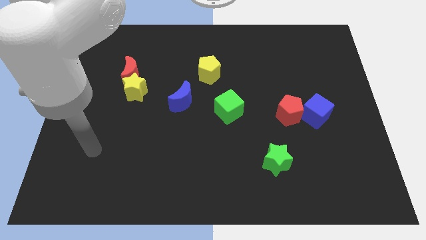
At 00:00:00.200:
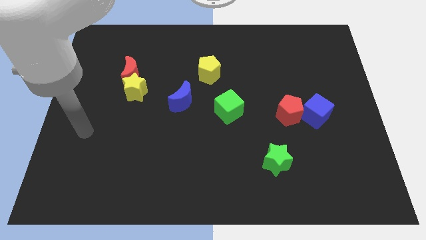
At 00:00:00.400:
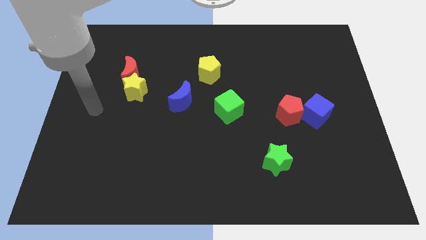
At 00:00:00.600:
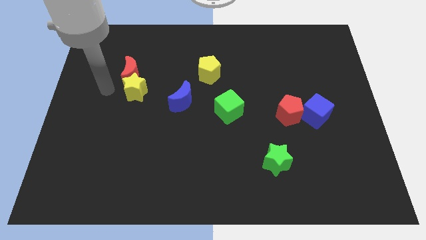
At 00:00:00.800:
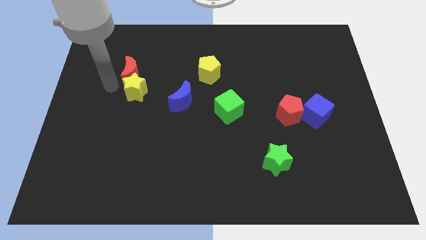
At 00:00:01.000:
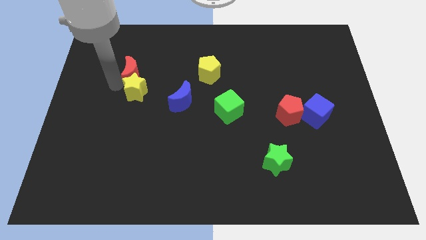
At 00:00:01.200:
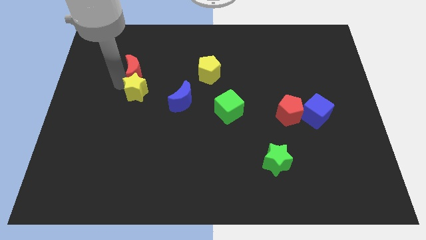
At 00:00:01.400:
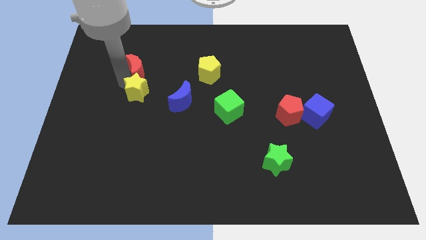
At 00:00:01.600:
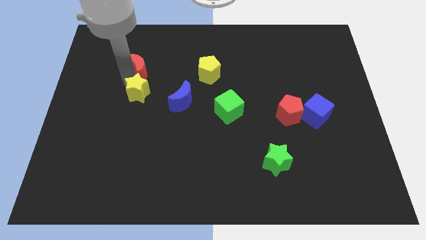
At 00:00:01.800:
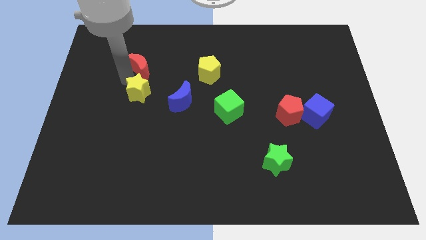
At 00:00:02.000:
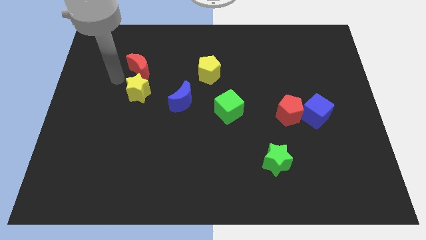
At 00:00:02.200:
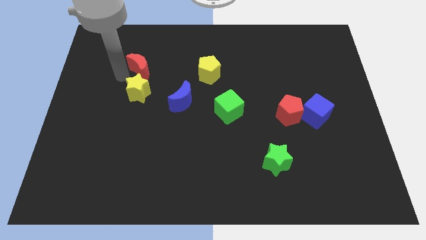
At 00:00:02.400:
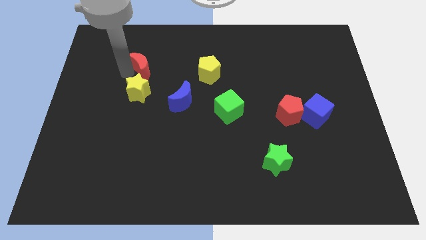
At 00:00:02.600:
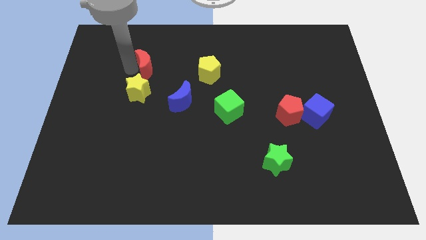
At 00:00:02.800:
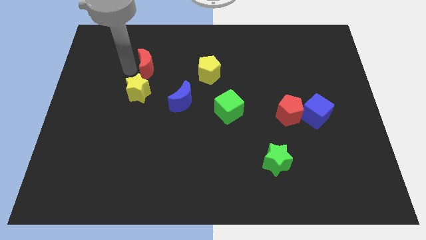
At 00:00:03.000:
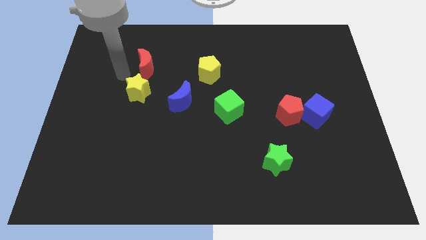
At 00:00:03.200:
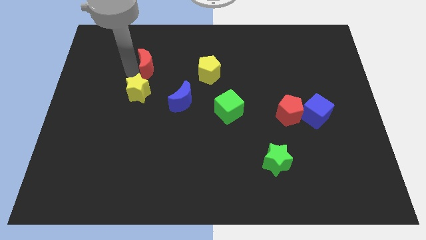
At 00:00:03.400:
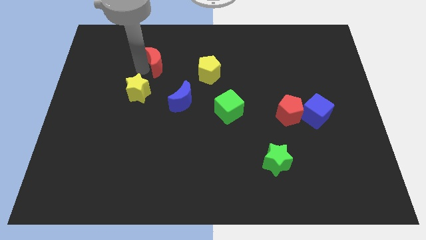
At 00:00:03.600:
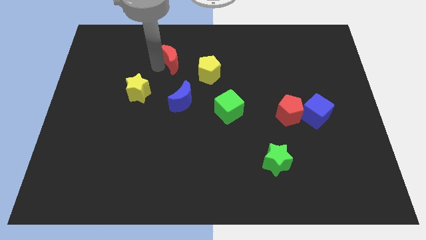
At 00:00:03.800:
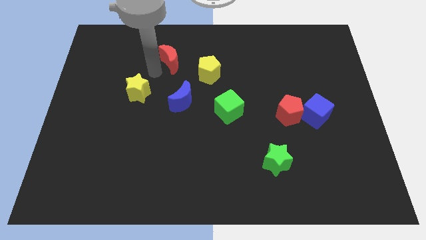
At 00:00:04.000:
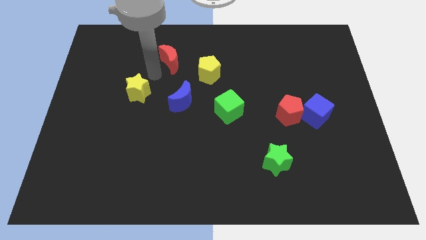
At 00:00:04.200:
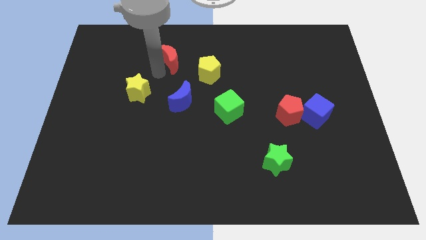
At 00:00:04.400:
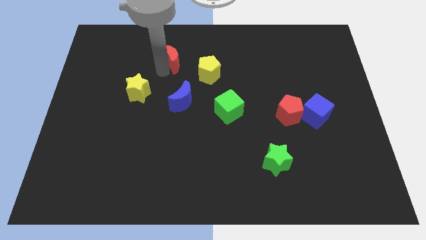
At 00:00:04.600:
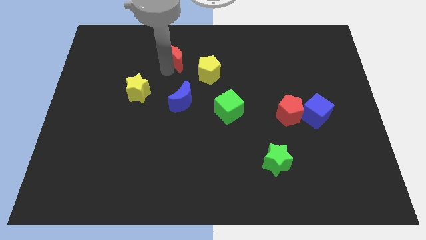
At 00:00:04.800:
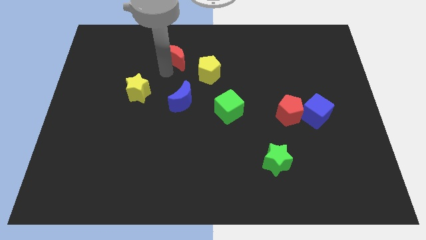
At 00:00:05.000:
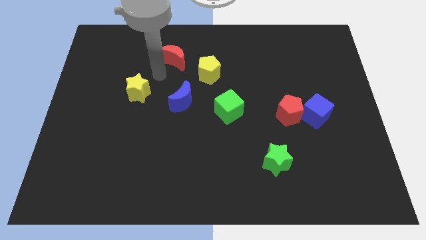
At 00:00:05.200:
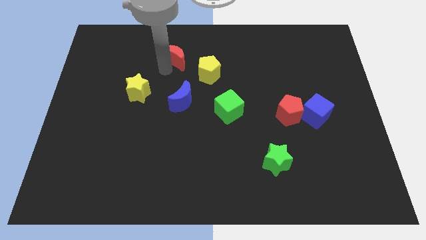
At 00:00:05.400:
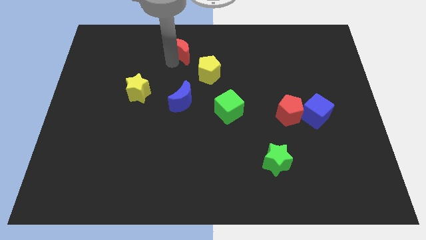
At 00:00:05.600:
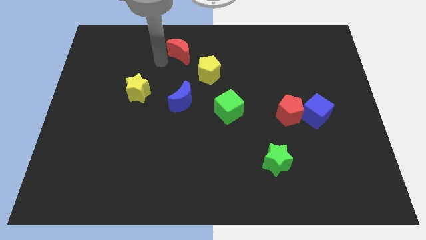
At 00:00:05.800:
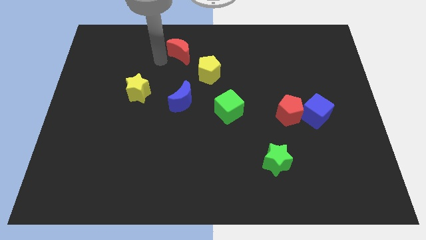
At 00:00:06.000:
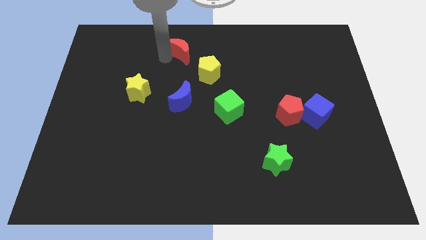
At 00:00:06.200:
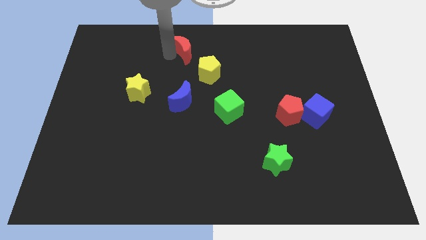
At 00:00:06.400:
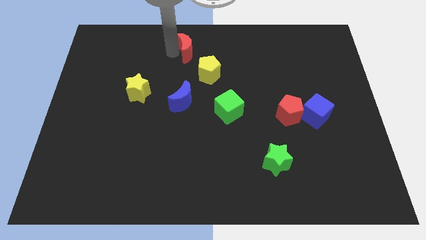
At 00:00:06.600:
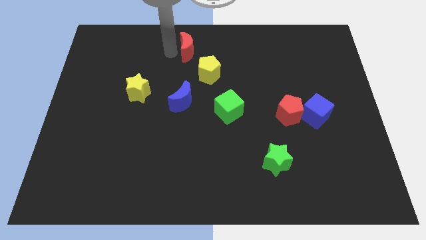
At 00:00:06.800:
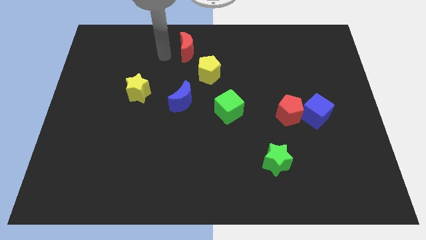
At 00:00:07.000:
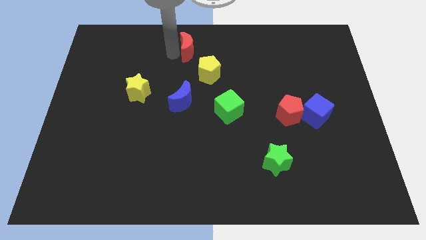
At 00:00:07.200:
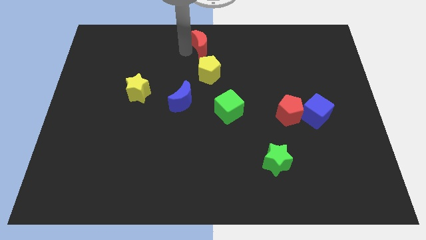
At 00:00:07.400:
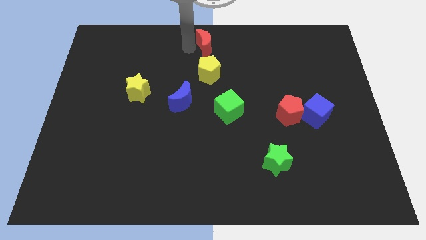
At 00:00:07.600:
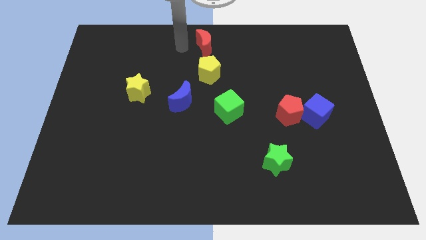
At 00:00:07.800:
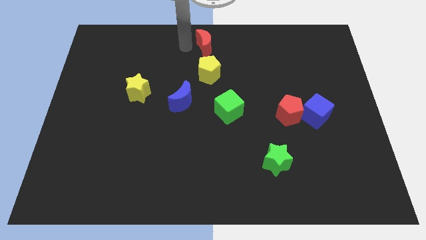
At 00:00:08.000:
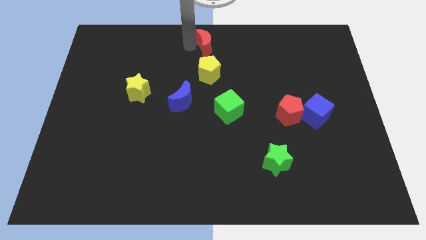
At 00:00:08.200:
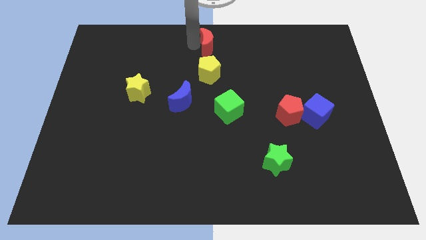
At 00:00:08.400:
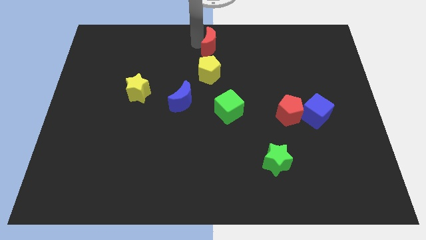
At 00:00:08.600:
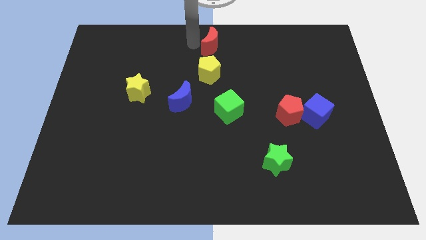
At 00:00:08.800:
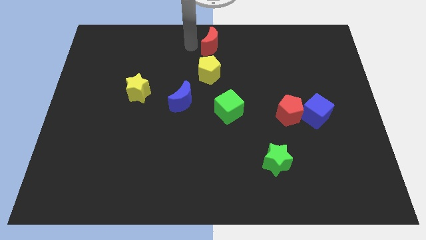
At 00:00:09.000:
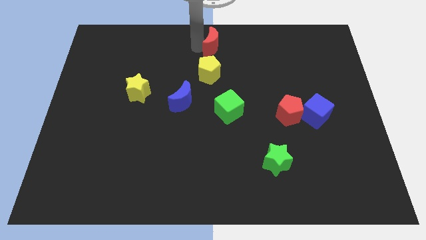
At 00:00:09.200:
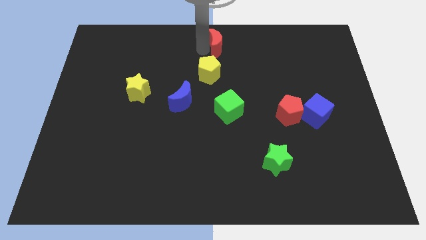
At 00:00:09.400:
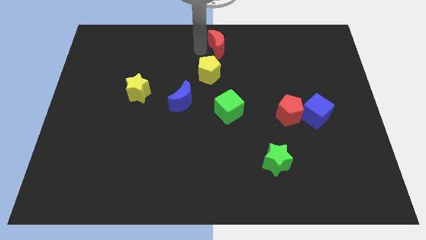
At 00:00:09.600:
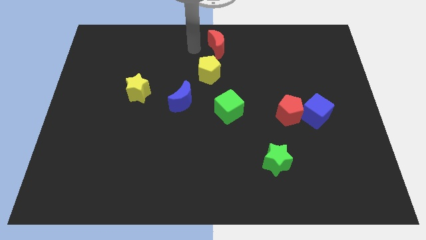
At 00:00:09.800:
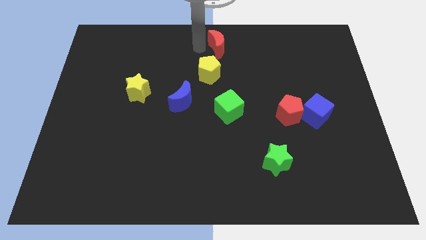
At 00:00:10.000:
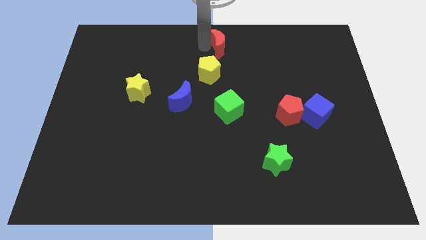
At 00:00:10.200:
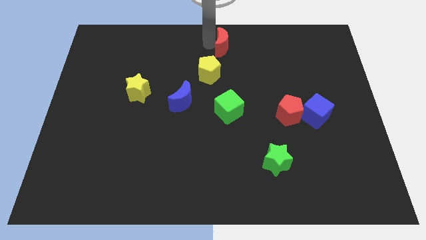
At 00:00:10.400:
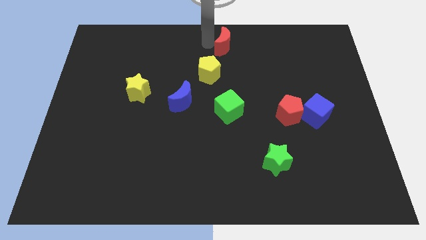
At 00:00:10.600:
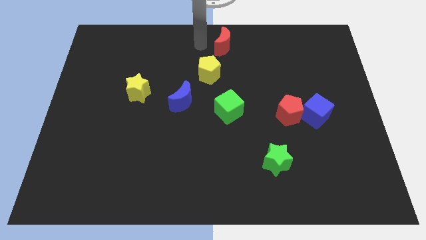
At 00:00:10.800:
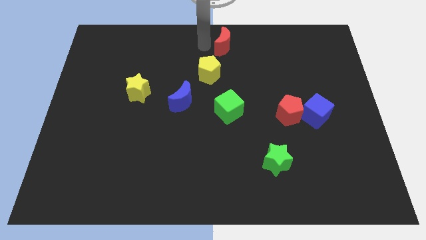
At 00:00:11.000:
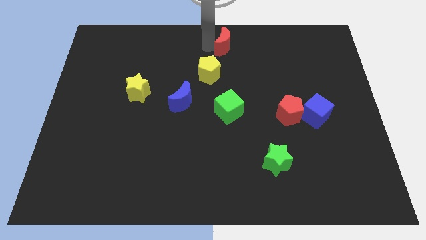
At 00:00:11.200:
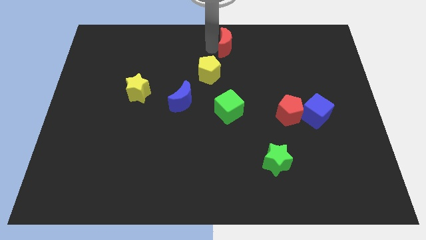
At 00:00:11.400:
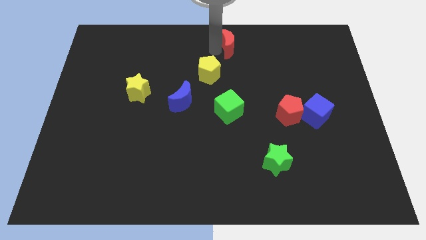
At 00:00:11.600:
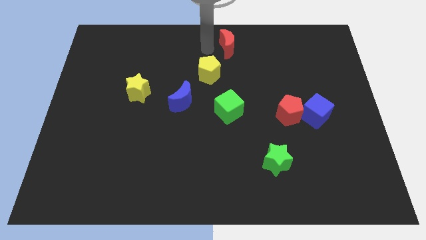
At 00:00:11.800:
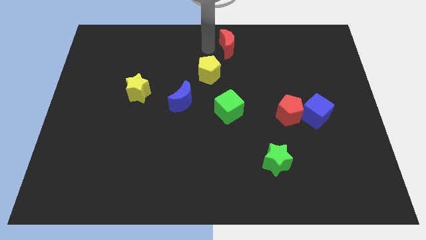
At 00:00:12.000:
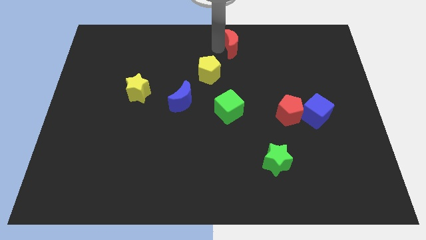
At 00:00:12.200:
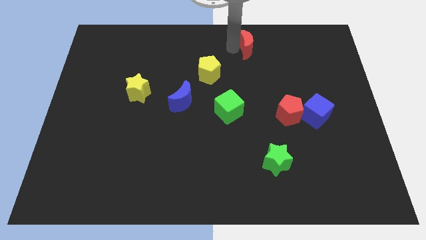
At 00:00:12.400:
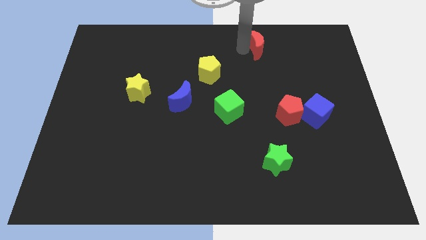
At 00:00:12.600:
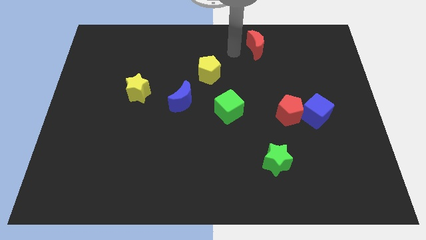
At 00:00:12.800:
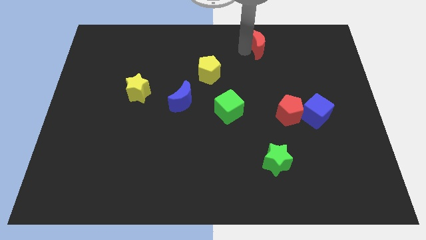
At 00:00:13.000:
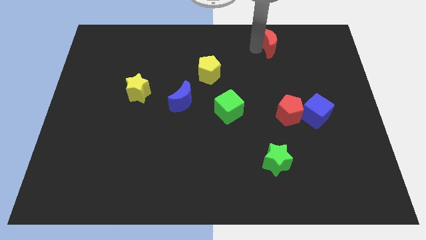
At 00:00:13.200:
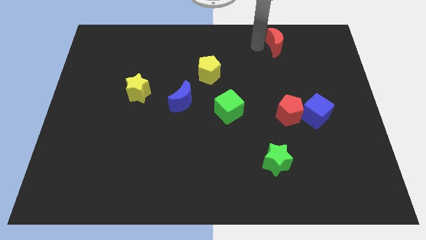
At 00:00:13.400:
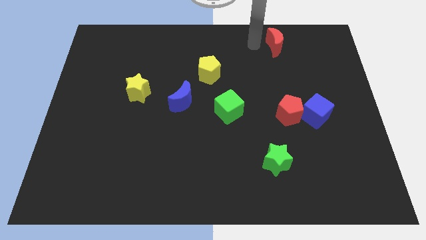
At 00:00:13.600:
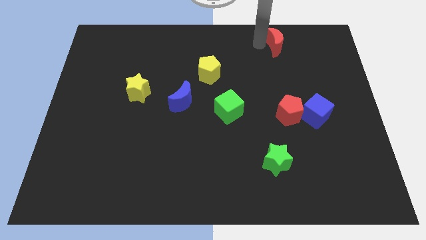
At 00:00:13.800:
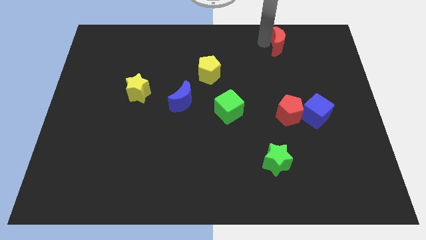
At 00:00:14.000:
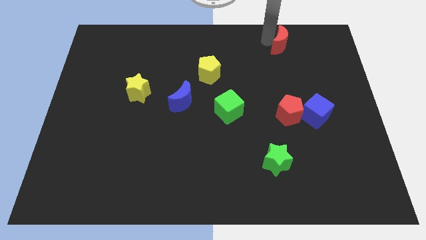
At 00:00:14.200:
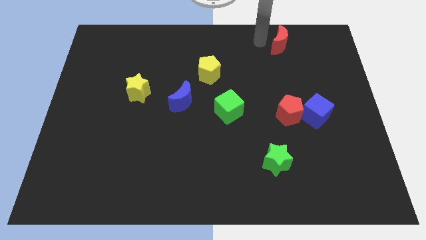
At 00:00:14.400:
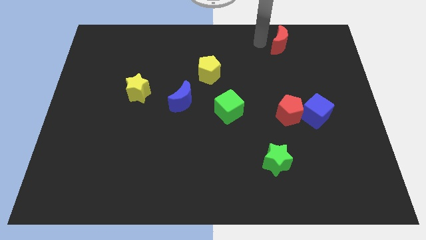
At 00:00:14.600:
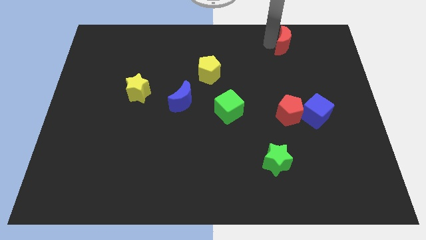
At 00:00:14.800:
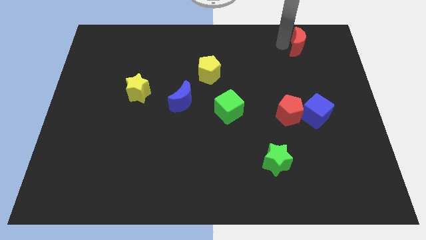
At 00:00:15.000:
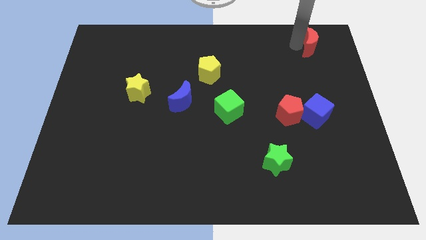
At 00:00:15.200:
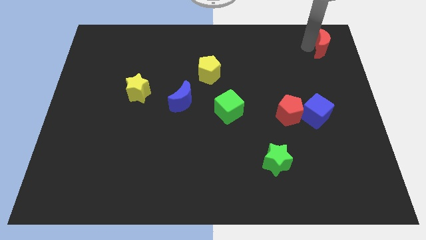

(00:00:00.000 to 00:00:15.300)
put the red moon to the top right of the board
